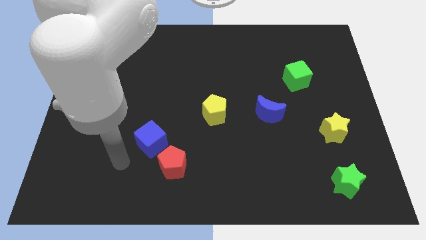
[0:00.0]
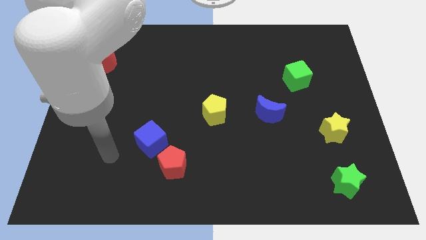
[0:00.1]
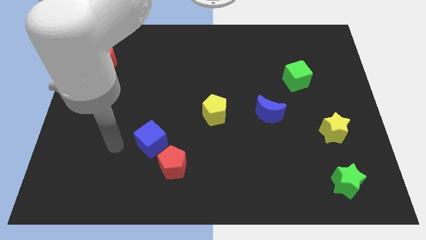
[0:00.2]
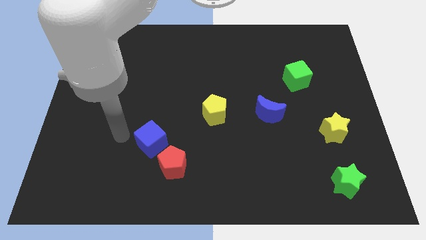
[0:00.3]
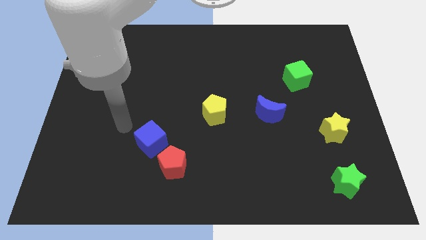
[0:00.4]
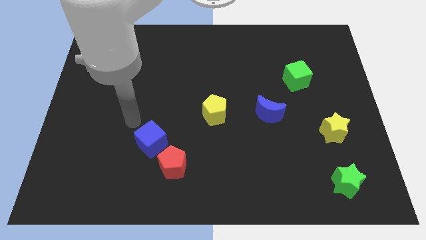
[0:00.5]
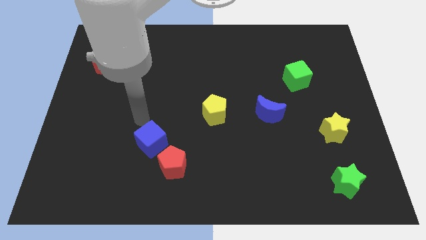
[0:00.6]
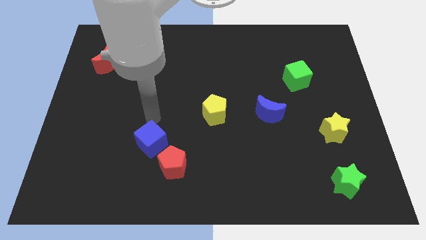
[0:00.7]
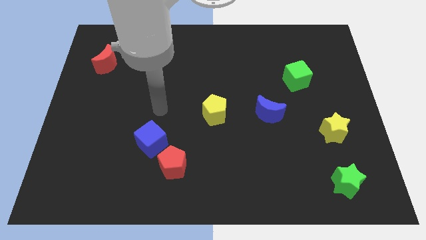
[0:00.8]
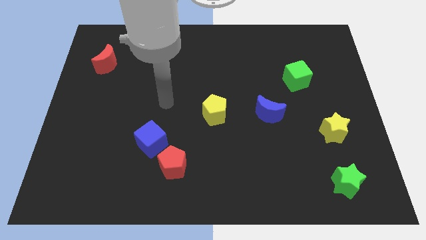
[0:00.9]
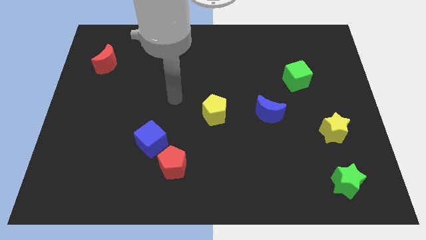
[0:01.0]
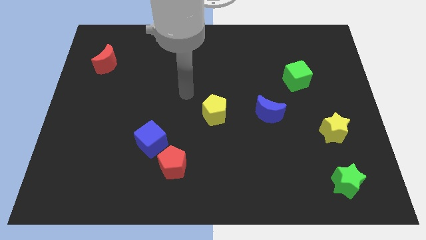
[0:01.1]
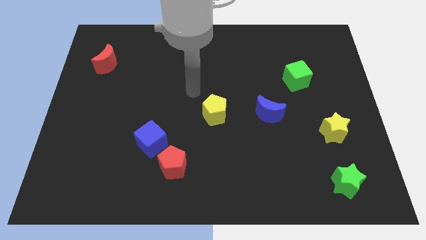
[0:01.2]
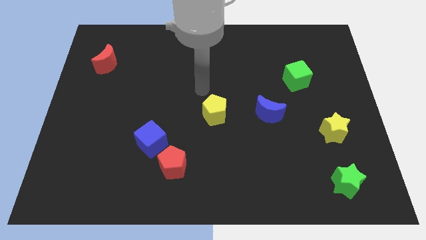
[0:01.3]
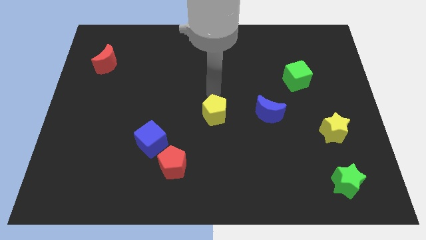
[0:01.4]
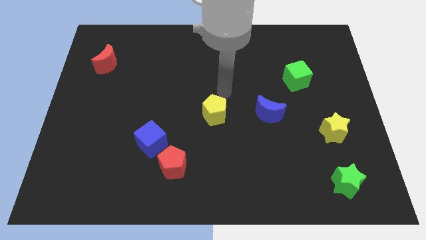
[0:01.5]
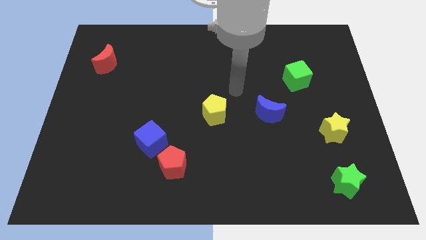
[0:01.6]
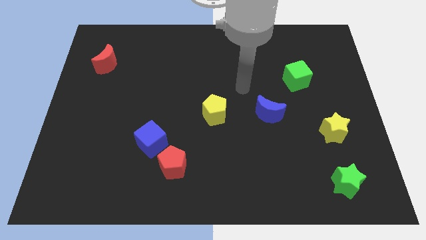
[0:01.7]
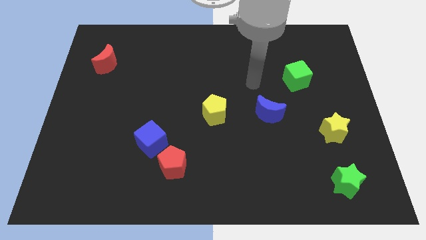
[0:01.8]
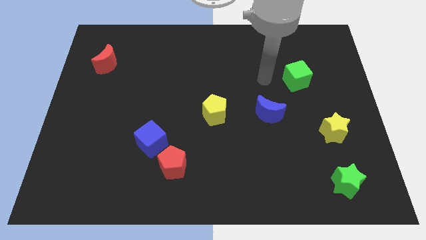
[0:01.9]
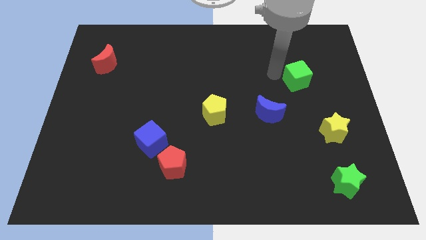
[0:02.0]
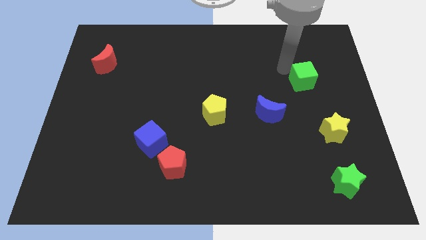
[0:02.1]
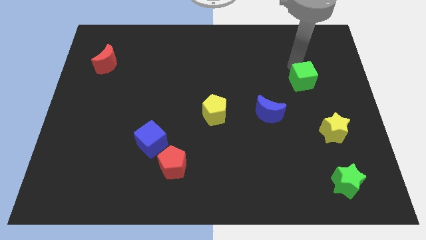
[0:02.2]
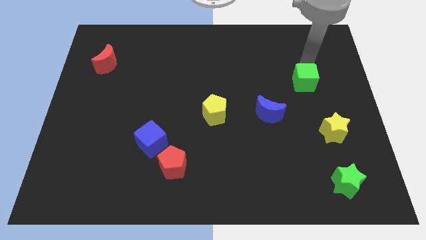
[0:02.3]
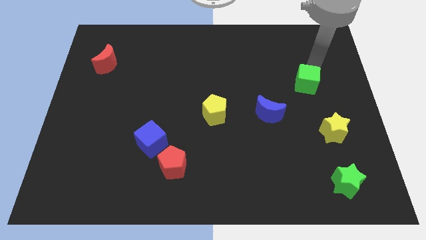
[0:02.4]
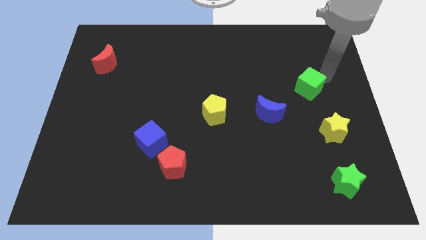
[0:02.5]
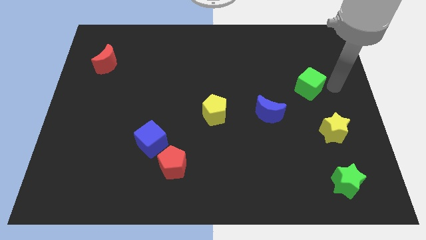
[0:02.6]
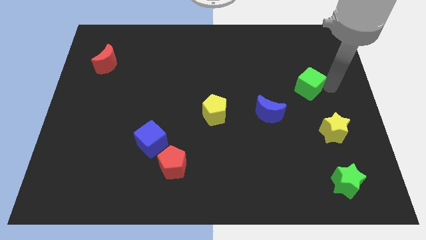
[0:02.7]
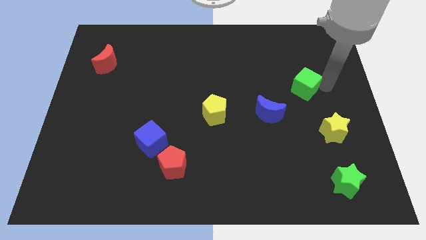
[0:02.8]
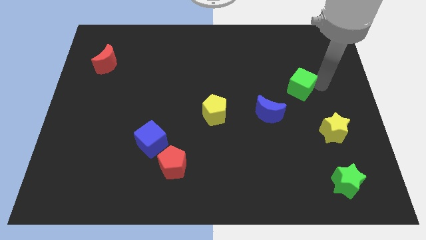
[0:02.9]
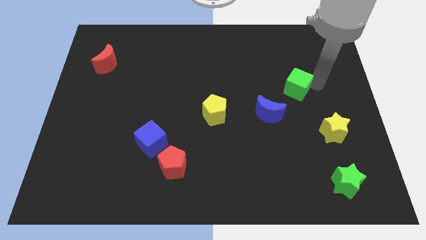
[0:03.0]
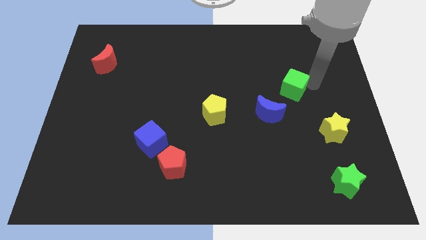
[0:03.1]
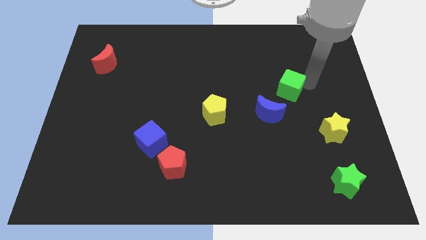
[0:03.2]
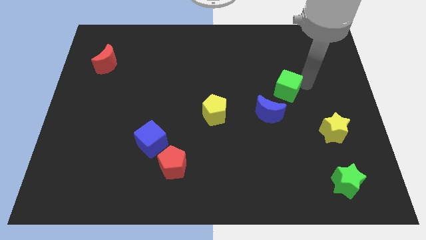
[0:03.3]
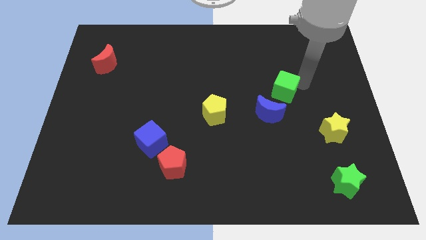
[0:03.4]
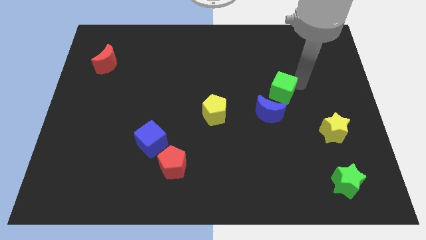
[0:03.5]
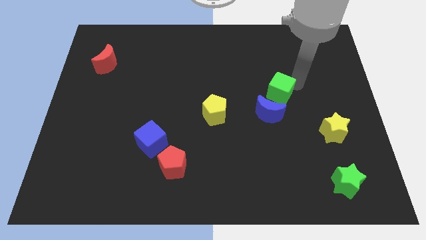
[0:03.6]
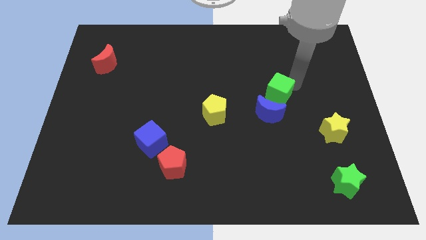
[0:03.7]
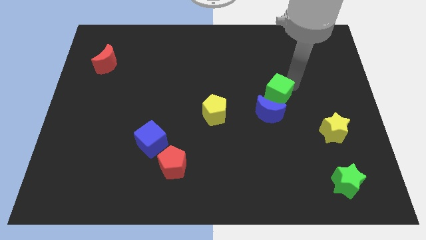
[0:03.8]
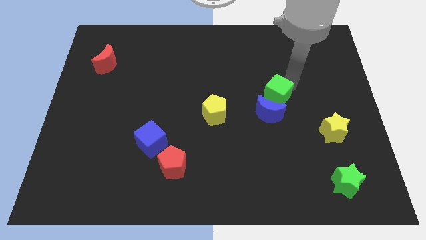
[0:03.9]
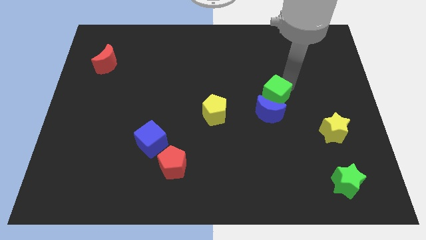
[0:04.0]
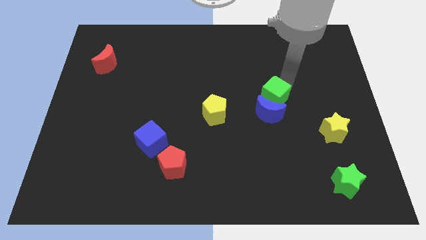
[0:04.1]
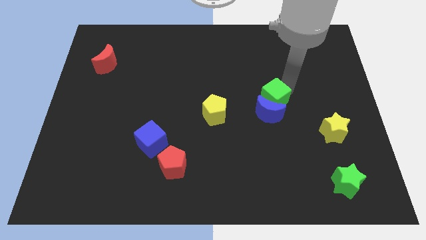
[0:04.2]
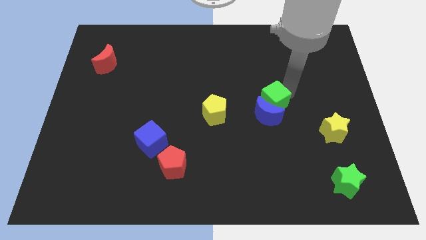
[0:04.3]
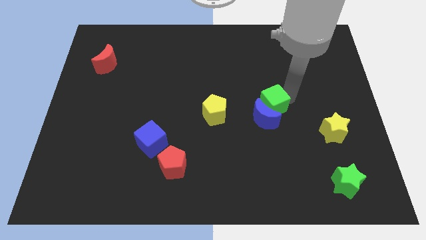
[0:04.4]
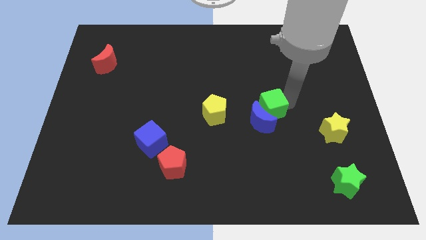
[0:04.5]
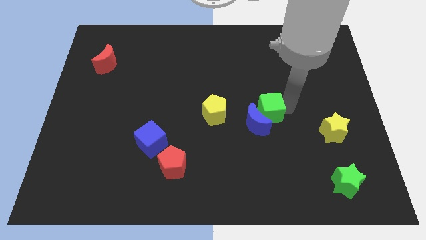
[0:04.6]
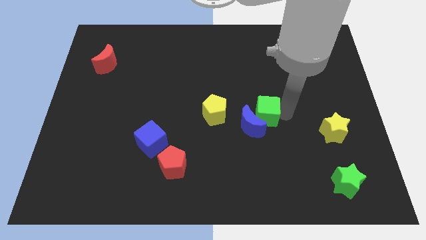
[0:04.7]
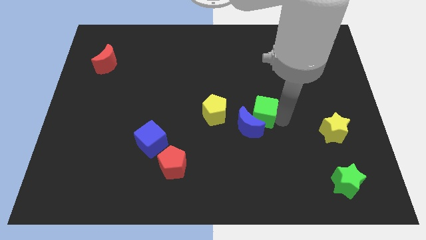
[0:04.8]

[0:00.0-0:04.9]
push the green cube to the middle

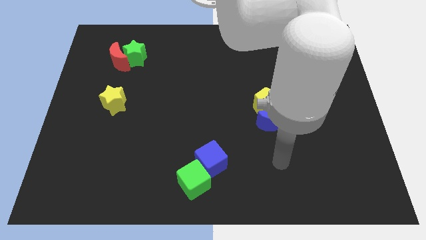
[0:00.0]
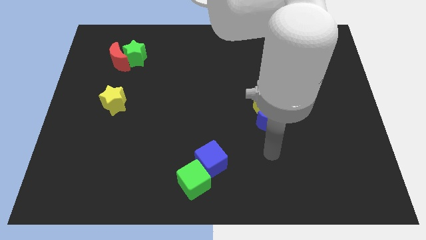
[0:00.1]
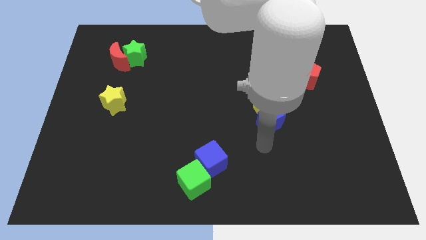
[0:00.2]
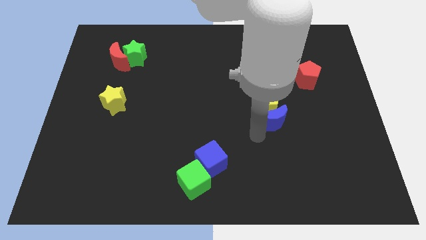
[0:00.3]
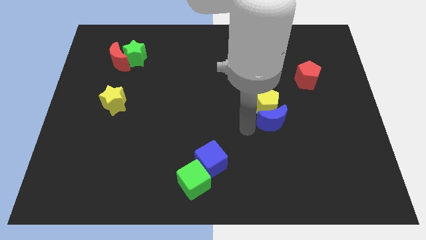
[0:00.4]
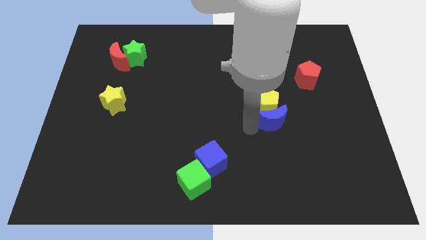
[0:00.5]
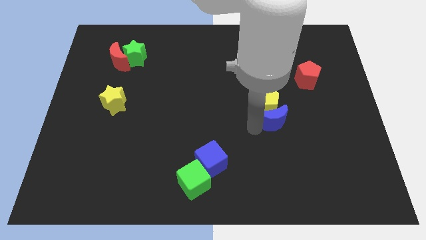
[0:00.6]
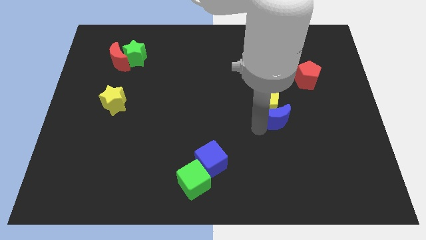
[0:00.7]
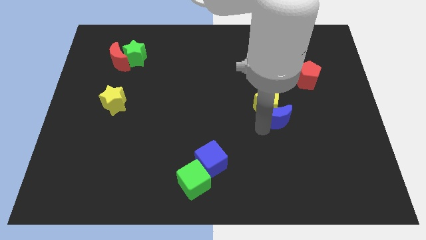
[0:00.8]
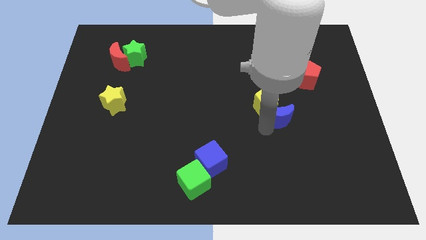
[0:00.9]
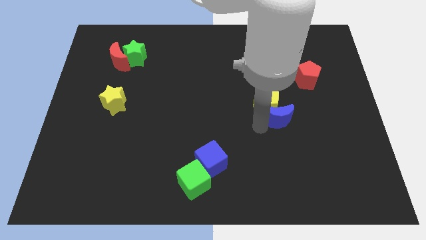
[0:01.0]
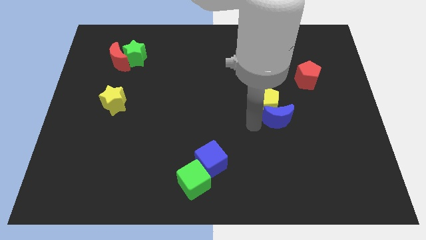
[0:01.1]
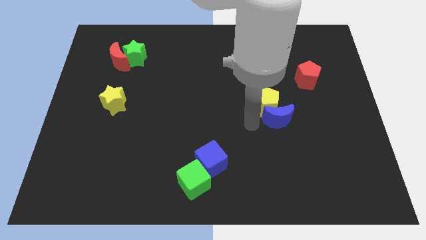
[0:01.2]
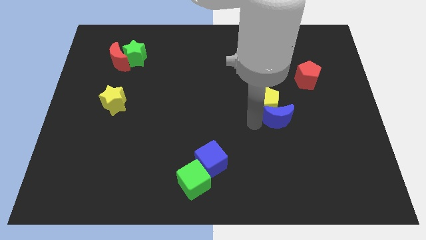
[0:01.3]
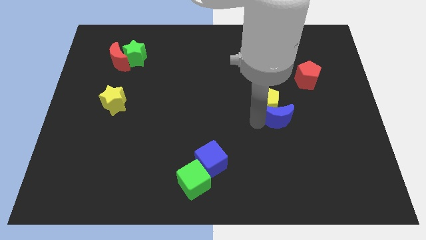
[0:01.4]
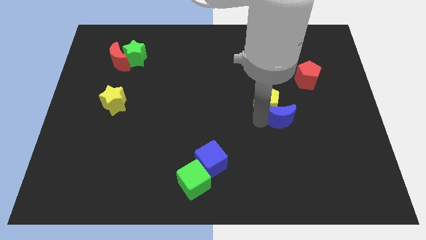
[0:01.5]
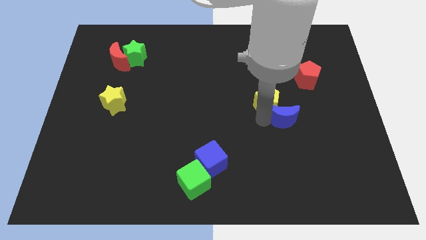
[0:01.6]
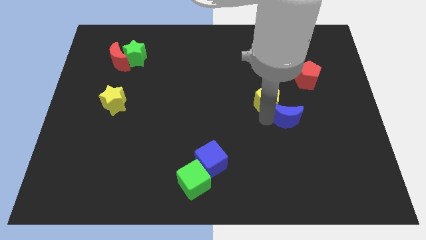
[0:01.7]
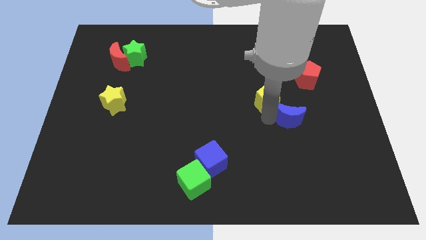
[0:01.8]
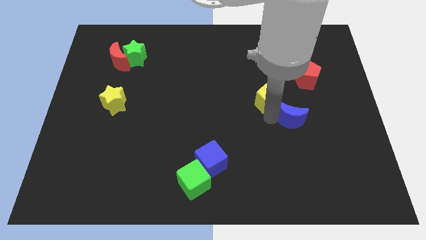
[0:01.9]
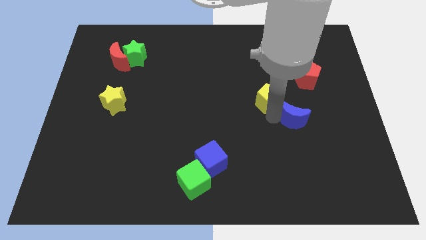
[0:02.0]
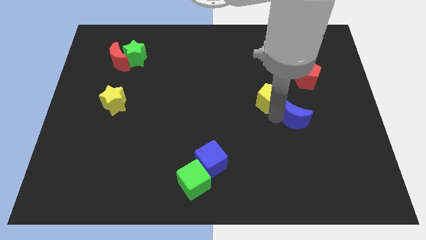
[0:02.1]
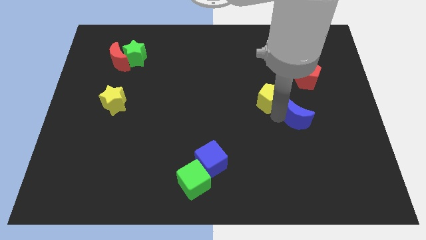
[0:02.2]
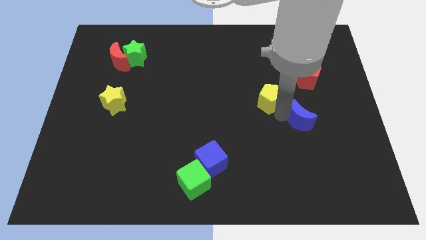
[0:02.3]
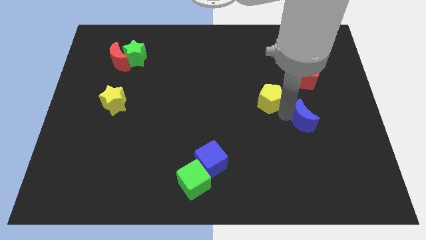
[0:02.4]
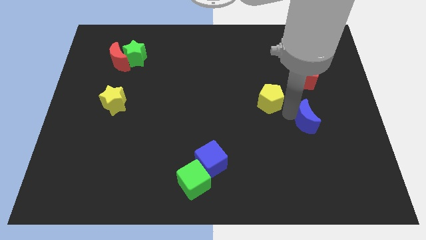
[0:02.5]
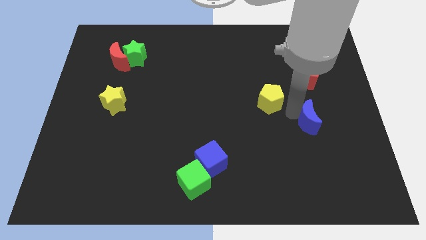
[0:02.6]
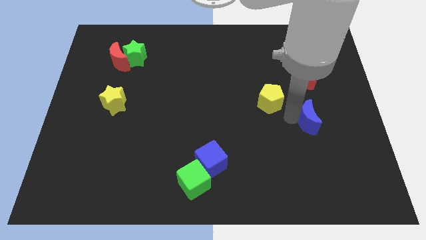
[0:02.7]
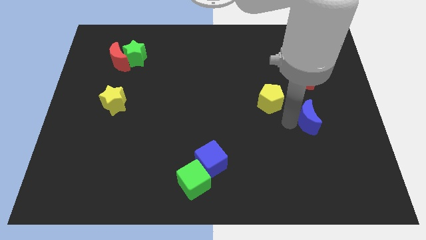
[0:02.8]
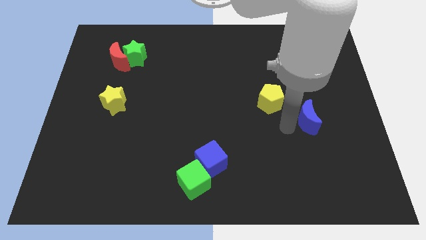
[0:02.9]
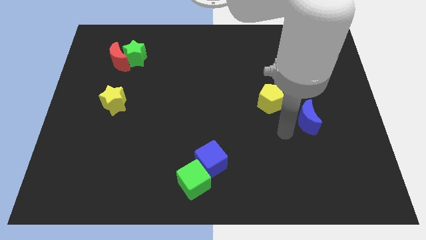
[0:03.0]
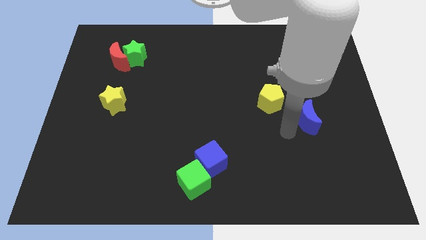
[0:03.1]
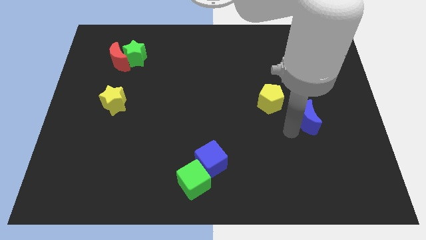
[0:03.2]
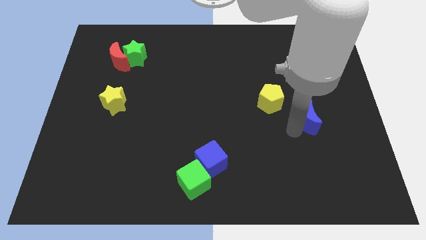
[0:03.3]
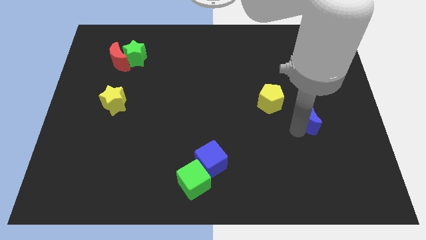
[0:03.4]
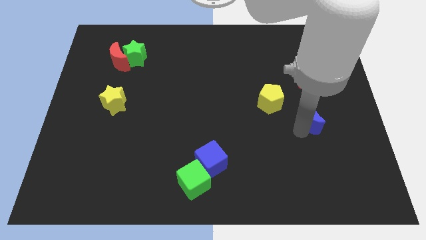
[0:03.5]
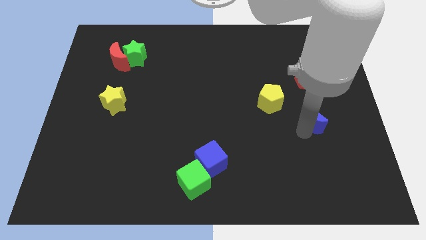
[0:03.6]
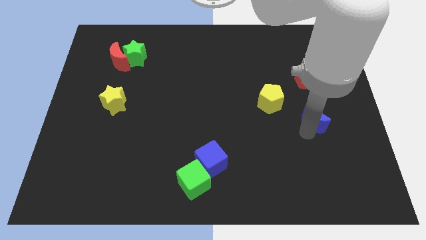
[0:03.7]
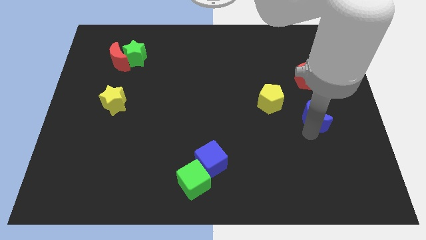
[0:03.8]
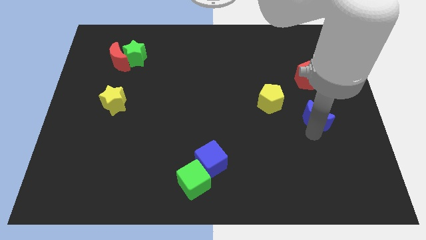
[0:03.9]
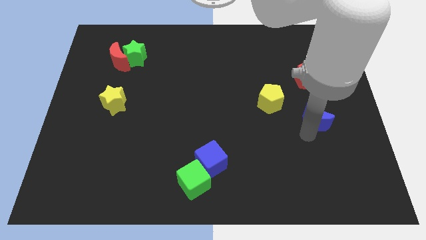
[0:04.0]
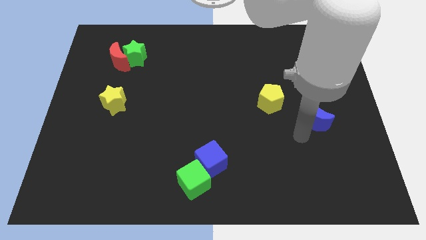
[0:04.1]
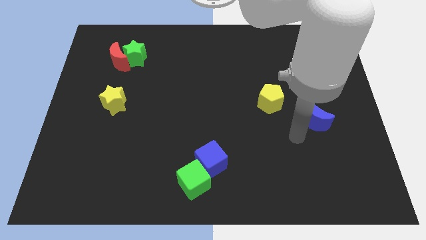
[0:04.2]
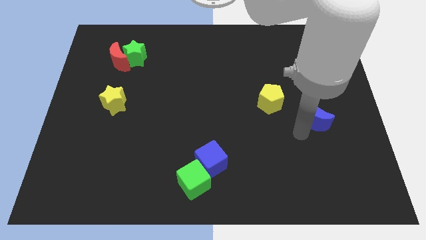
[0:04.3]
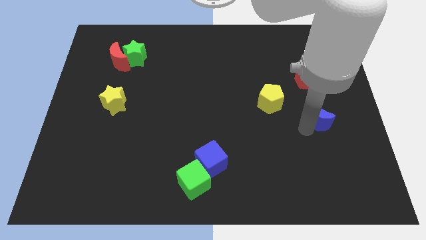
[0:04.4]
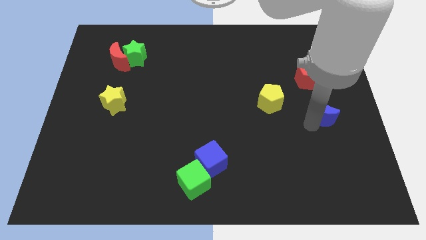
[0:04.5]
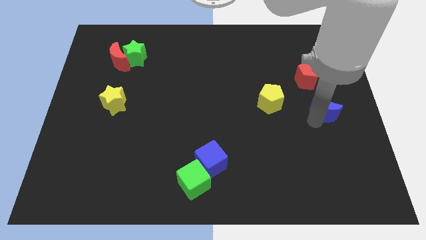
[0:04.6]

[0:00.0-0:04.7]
slide the blue moon to the right side
